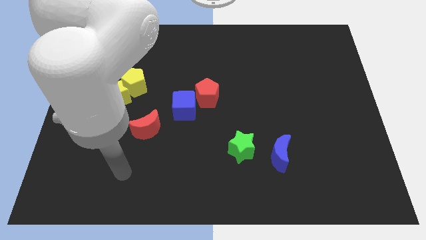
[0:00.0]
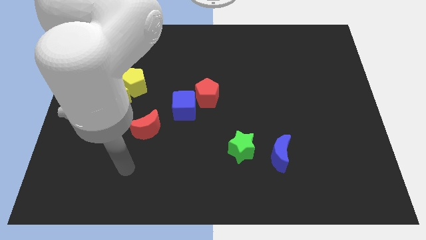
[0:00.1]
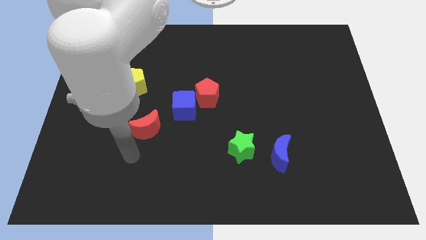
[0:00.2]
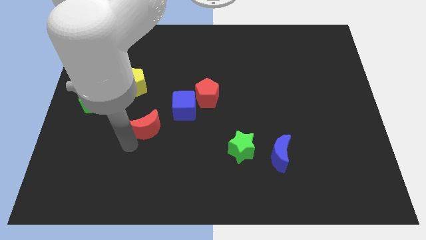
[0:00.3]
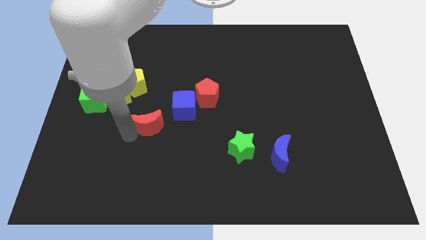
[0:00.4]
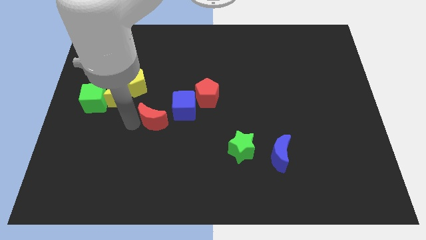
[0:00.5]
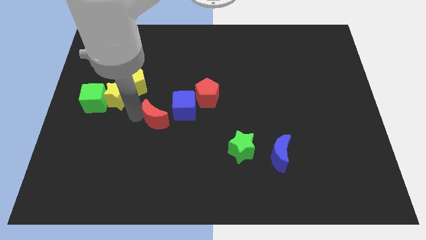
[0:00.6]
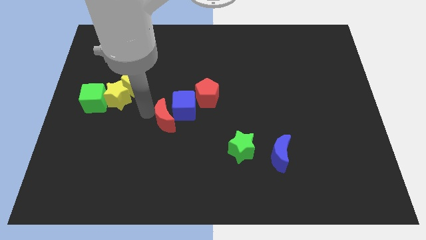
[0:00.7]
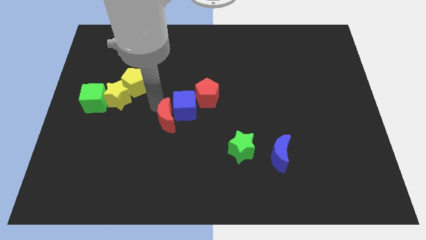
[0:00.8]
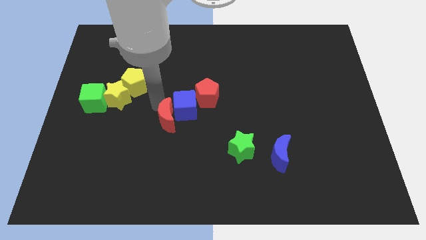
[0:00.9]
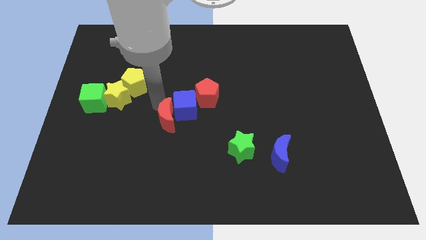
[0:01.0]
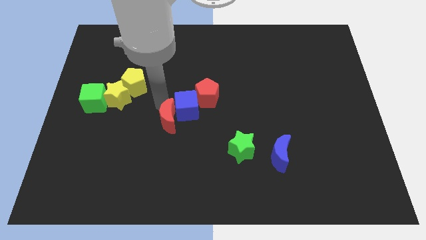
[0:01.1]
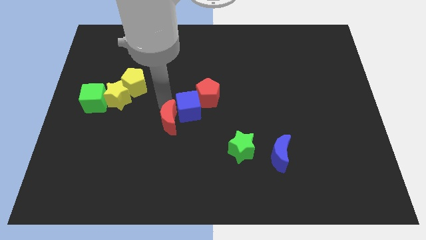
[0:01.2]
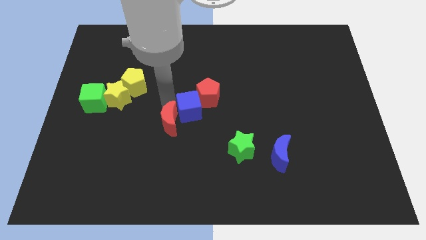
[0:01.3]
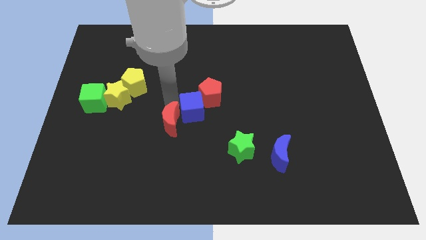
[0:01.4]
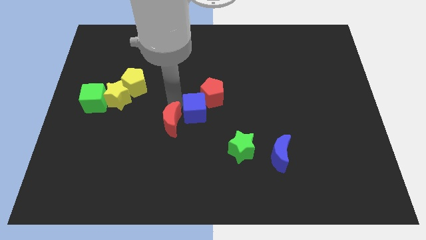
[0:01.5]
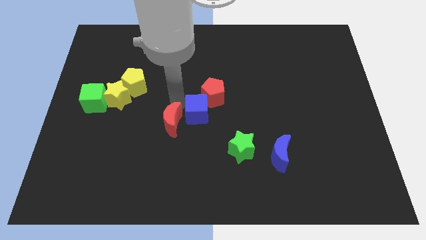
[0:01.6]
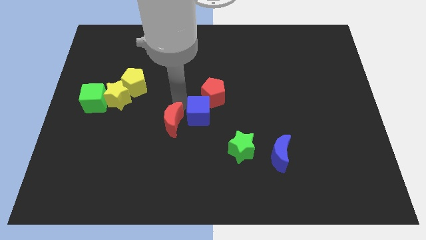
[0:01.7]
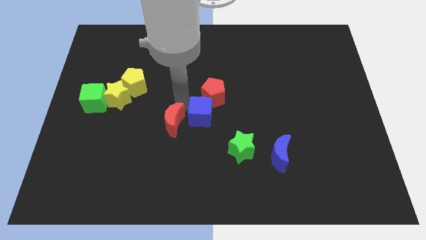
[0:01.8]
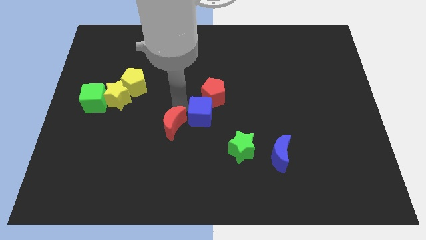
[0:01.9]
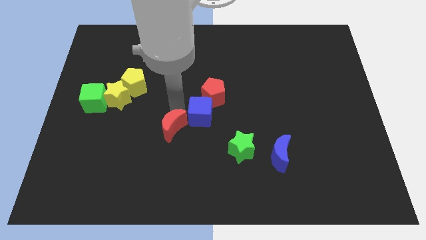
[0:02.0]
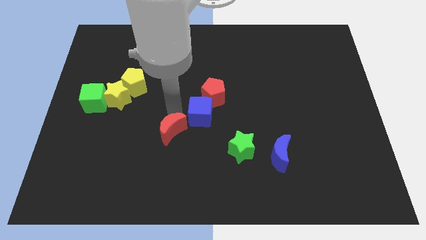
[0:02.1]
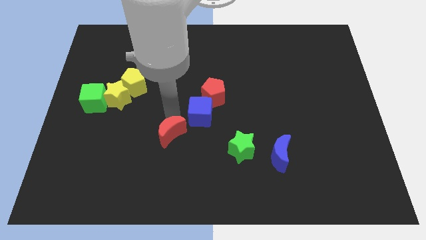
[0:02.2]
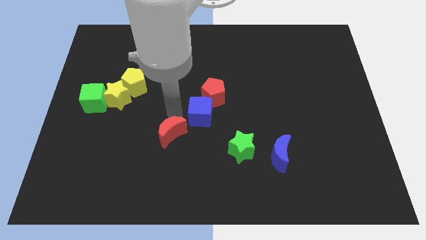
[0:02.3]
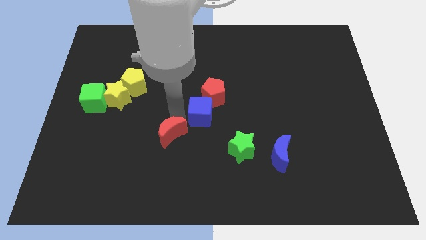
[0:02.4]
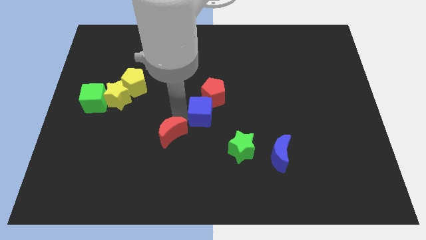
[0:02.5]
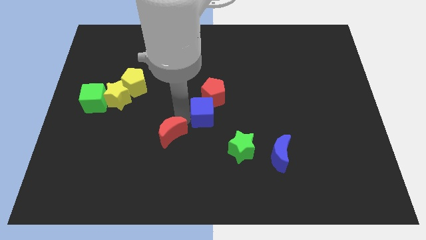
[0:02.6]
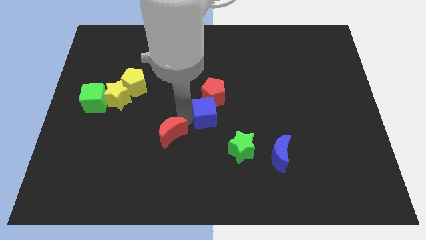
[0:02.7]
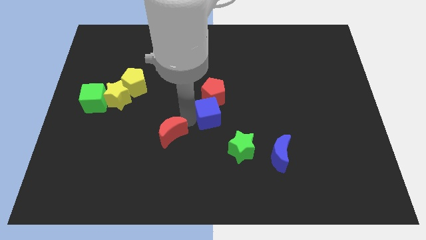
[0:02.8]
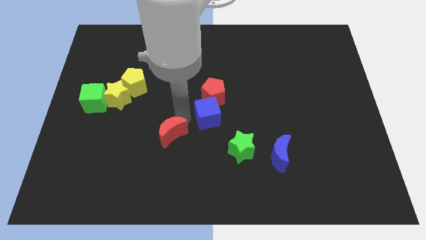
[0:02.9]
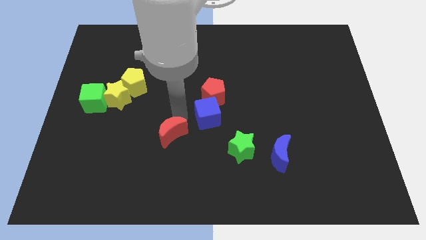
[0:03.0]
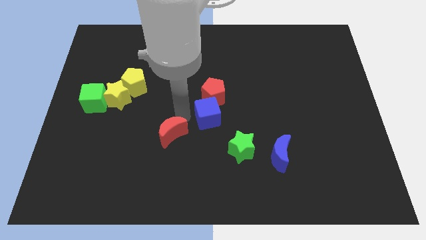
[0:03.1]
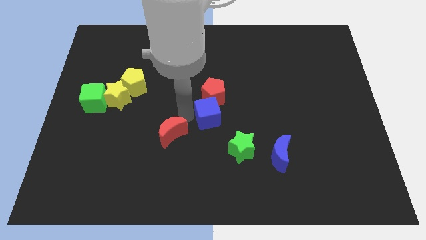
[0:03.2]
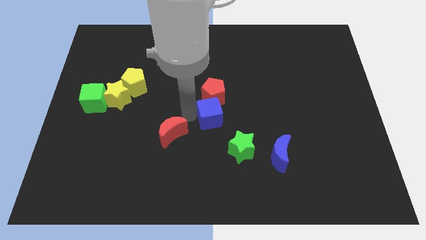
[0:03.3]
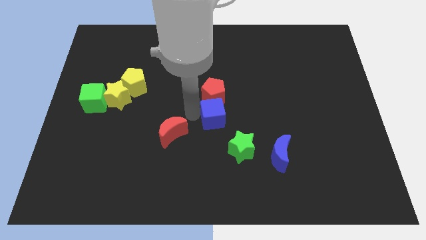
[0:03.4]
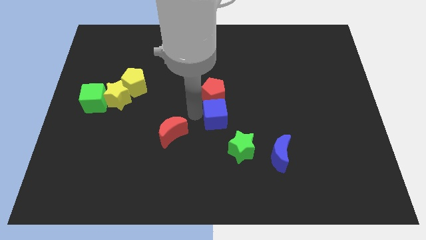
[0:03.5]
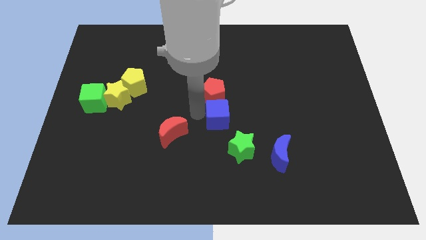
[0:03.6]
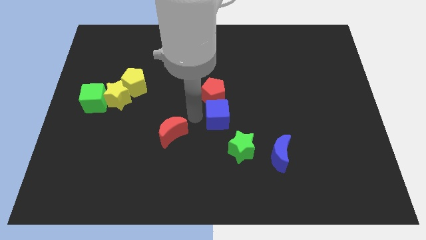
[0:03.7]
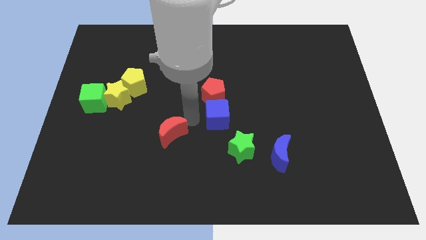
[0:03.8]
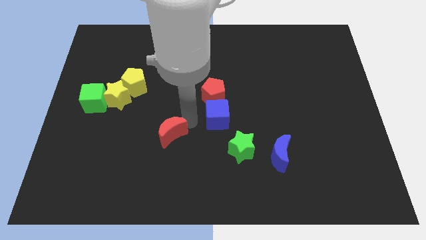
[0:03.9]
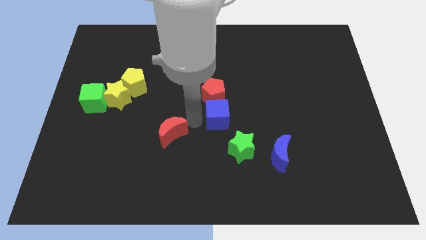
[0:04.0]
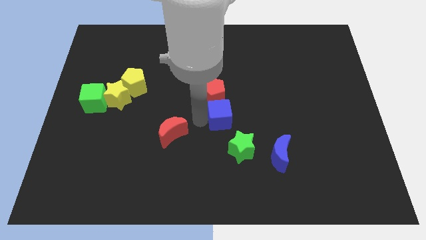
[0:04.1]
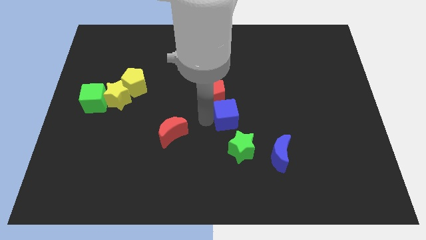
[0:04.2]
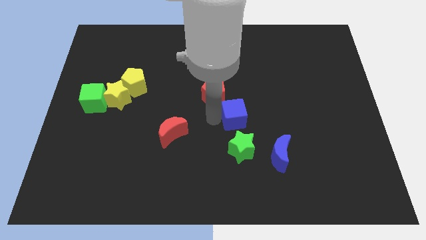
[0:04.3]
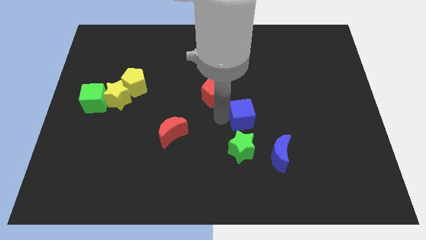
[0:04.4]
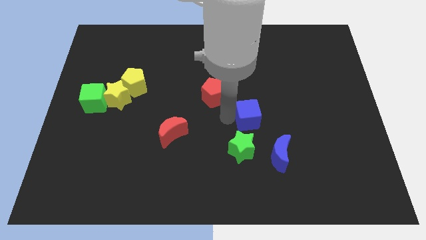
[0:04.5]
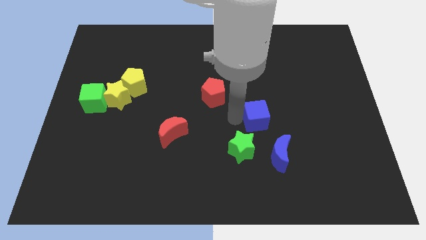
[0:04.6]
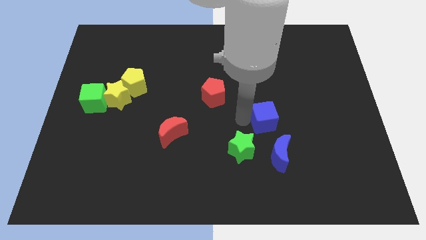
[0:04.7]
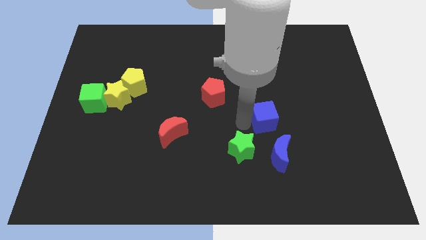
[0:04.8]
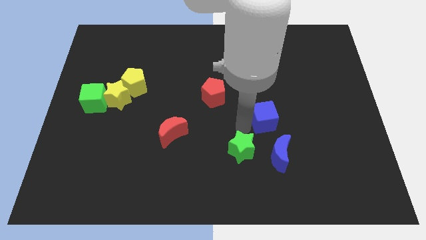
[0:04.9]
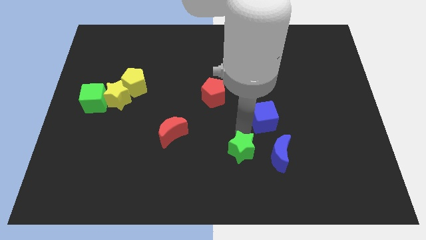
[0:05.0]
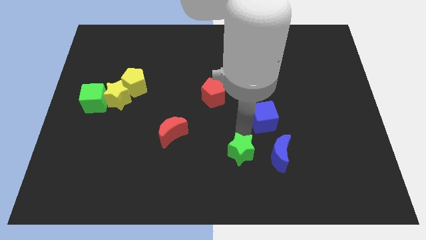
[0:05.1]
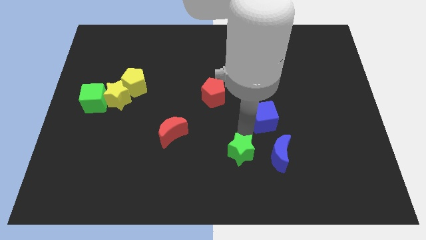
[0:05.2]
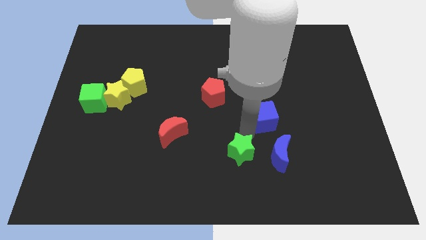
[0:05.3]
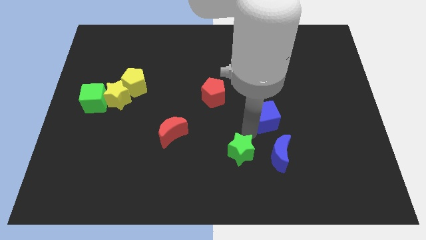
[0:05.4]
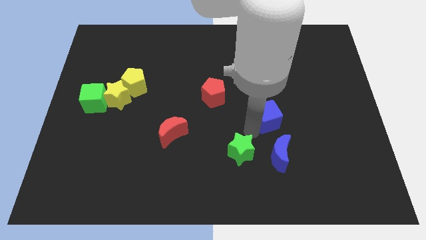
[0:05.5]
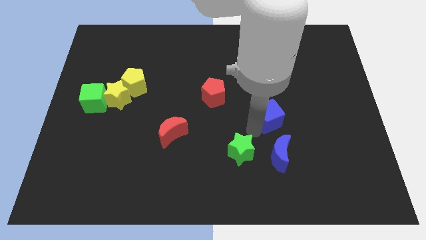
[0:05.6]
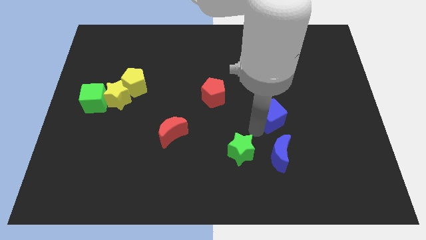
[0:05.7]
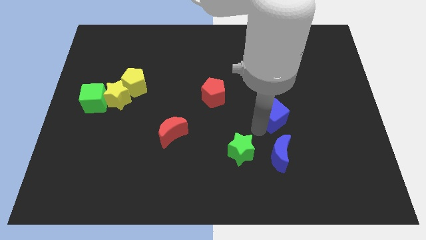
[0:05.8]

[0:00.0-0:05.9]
push the blue cube to the right

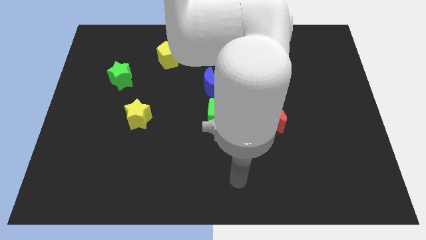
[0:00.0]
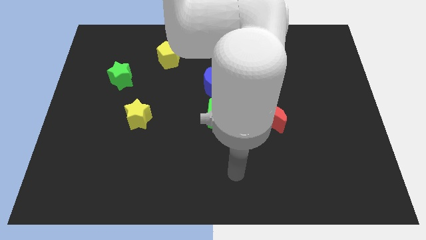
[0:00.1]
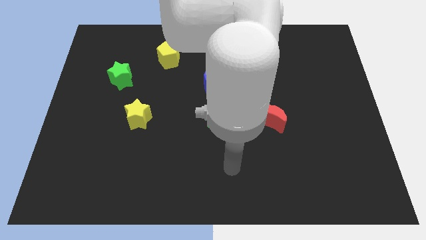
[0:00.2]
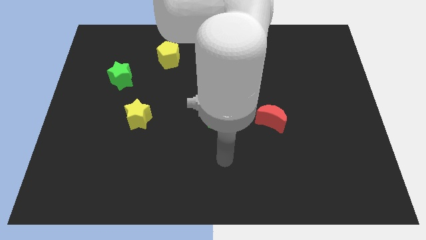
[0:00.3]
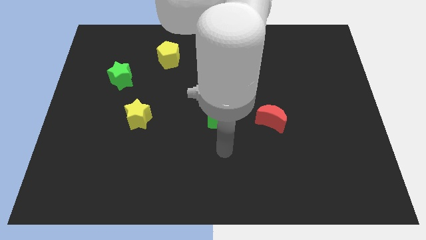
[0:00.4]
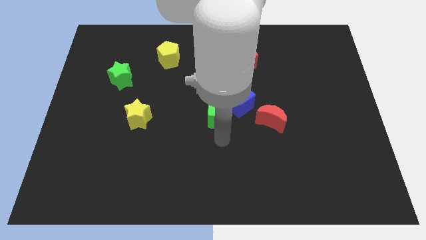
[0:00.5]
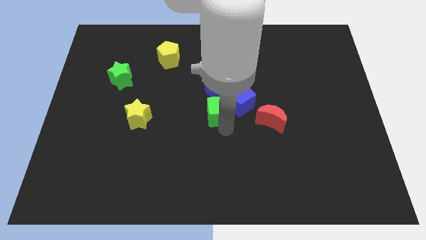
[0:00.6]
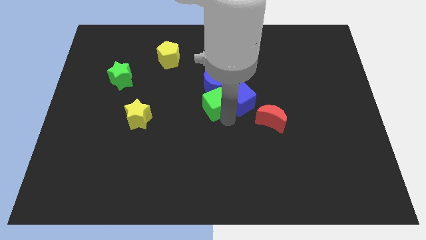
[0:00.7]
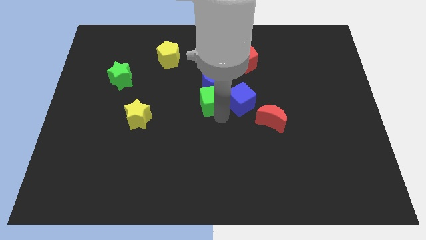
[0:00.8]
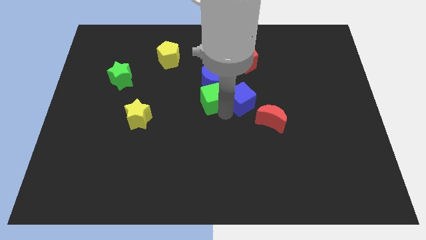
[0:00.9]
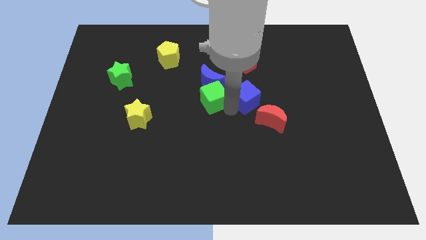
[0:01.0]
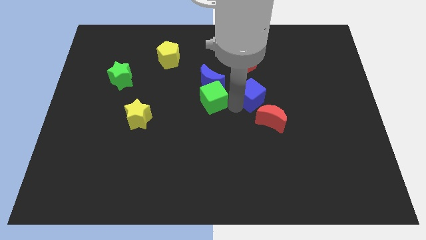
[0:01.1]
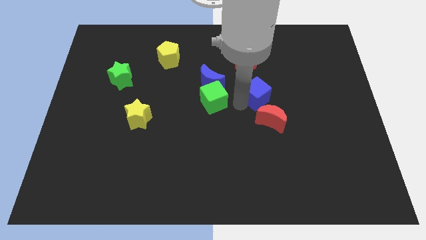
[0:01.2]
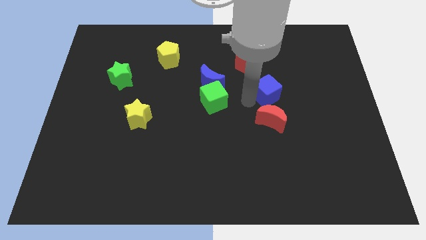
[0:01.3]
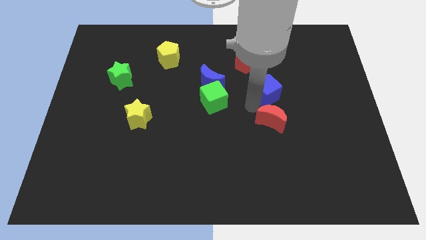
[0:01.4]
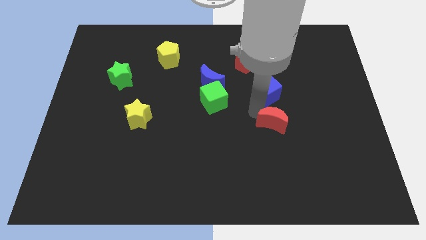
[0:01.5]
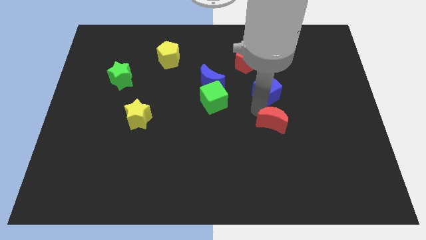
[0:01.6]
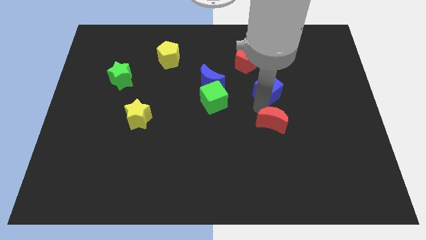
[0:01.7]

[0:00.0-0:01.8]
slightly move the blue cube diagonally up and to the right

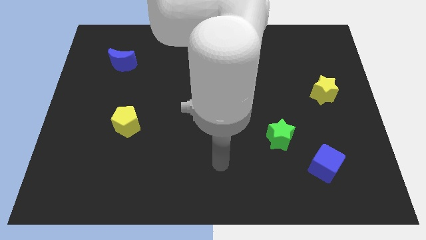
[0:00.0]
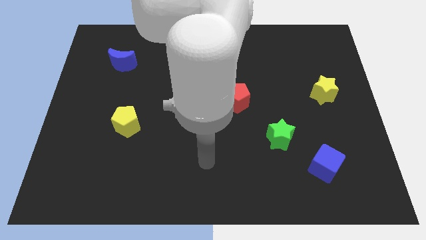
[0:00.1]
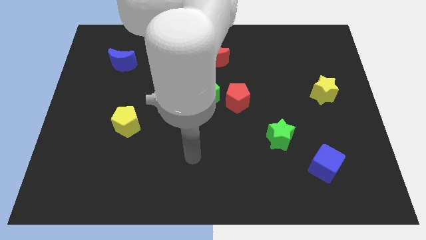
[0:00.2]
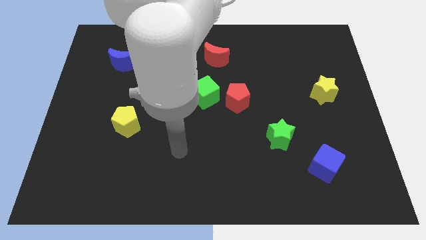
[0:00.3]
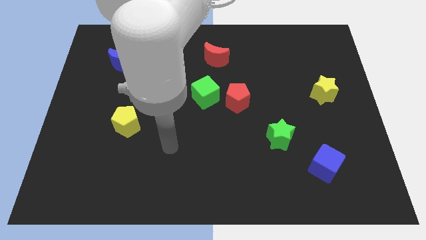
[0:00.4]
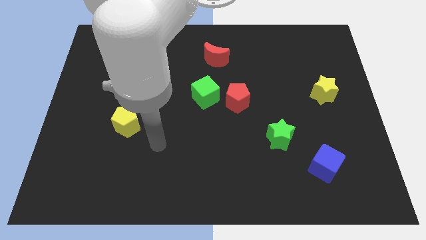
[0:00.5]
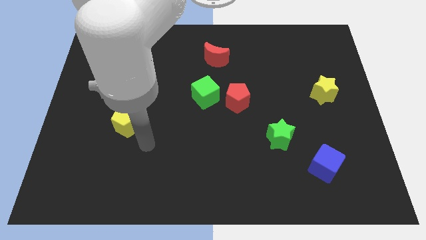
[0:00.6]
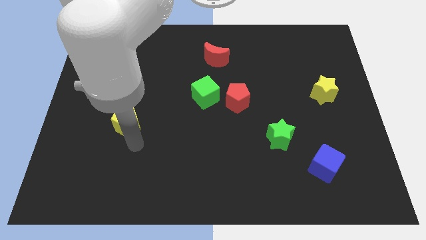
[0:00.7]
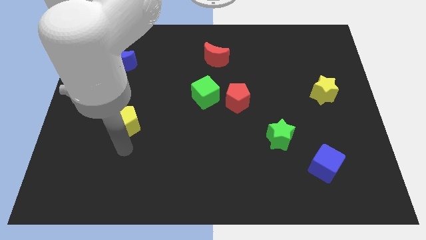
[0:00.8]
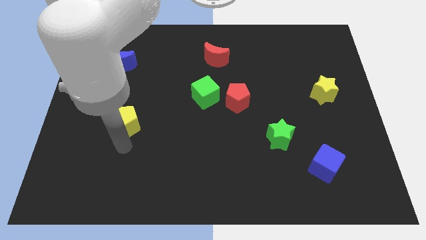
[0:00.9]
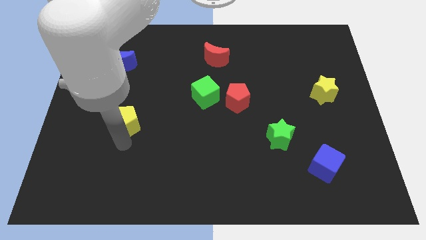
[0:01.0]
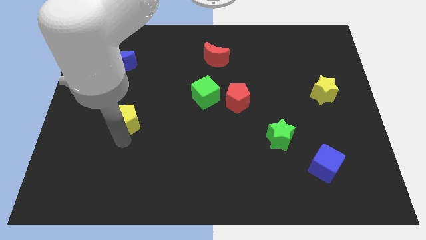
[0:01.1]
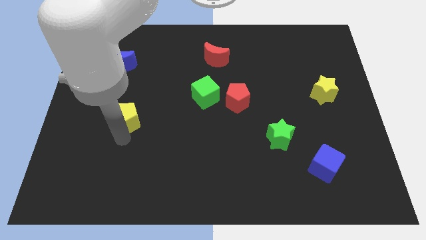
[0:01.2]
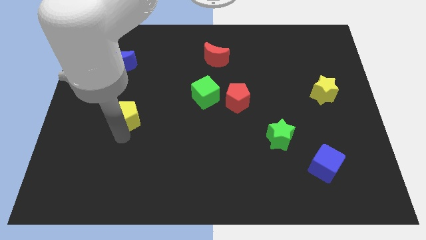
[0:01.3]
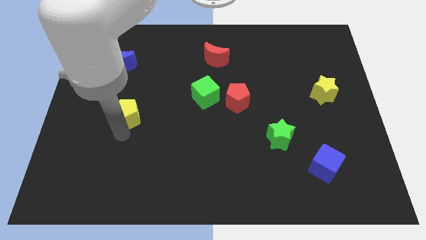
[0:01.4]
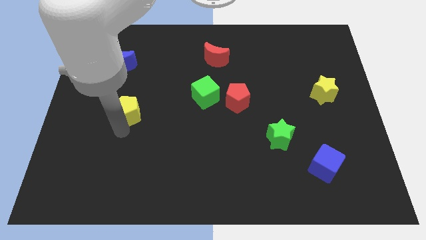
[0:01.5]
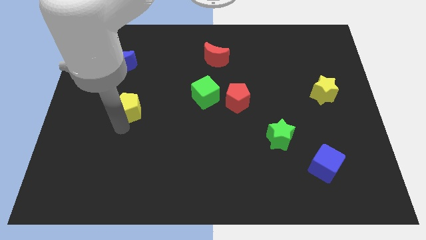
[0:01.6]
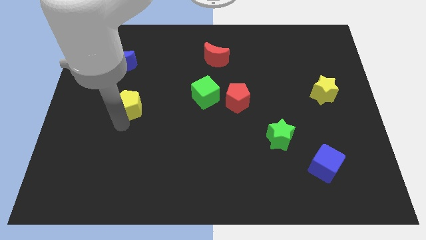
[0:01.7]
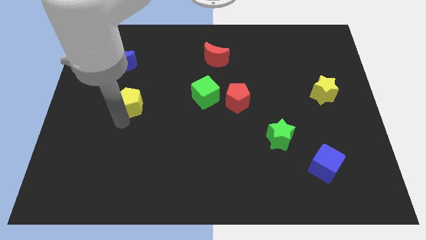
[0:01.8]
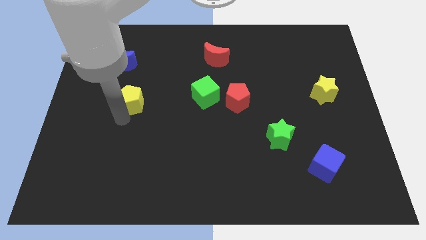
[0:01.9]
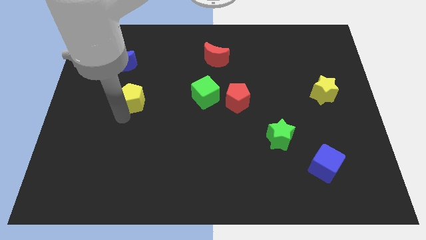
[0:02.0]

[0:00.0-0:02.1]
slightly slide the yellow pentagon up
